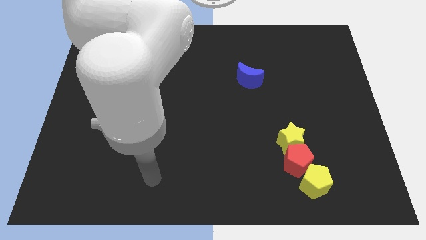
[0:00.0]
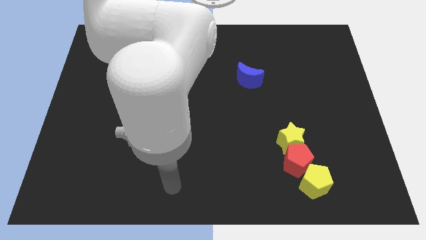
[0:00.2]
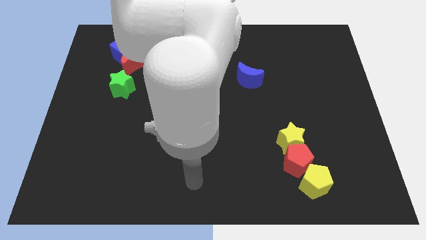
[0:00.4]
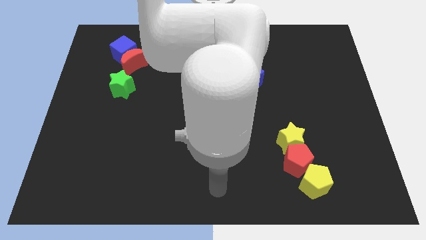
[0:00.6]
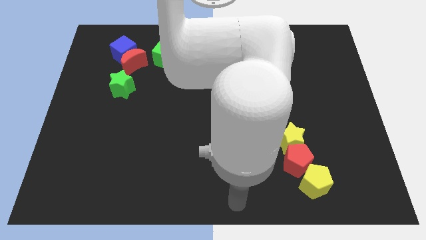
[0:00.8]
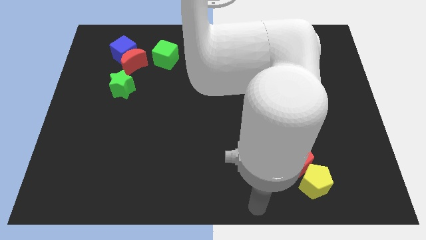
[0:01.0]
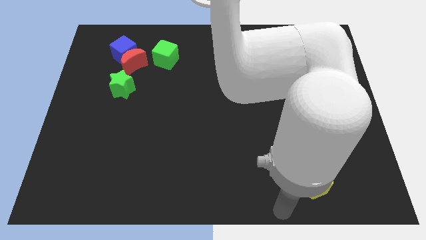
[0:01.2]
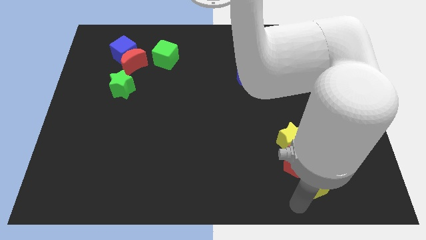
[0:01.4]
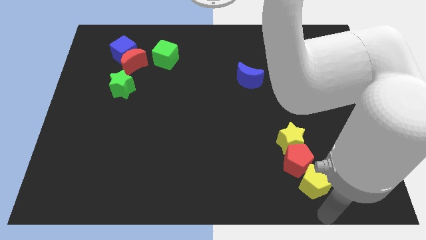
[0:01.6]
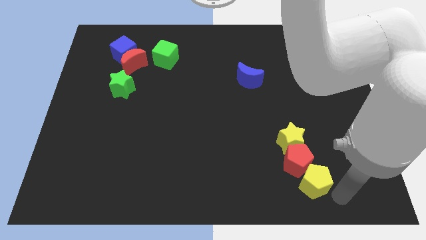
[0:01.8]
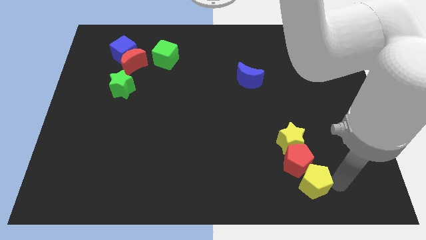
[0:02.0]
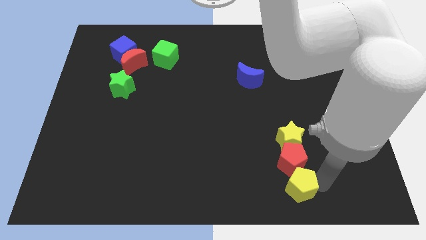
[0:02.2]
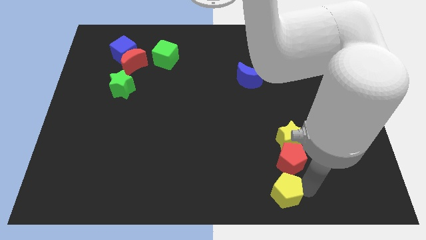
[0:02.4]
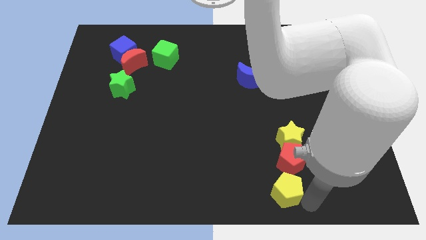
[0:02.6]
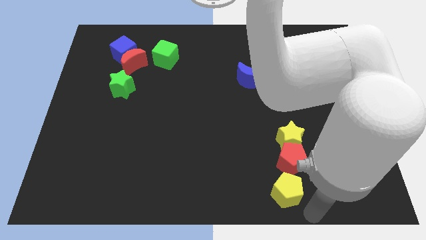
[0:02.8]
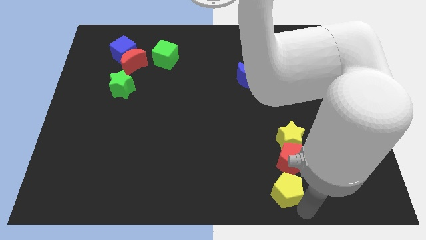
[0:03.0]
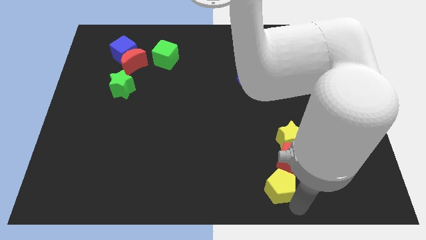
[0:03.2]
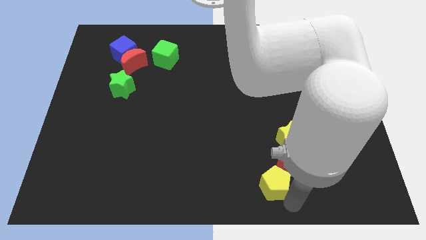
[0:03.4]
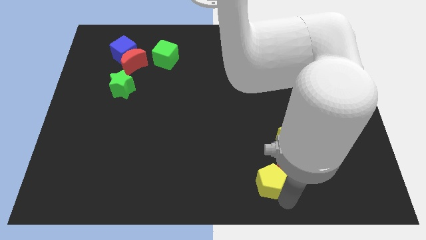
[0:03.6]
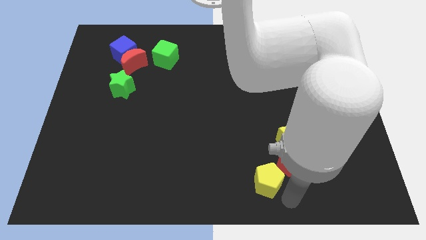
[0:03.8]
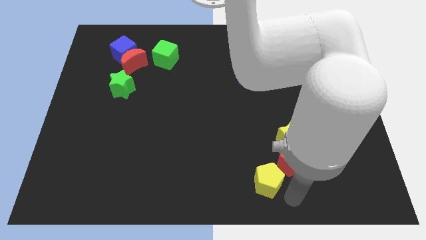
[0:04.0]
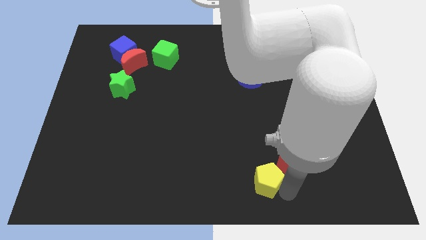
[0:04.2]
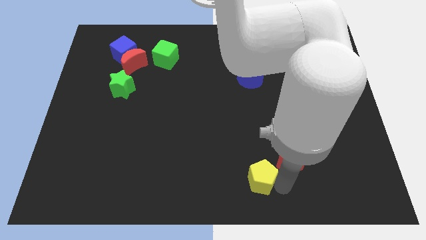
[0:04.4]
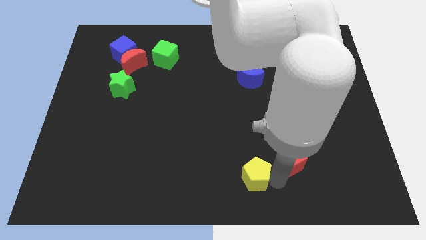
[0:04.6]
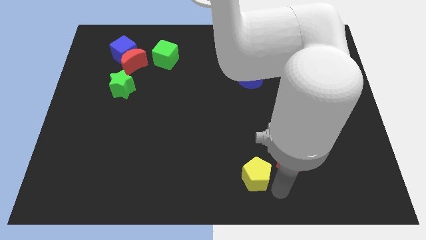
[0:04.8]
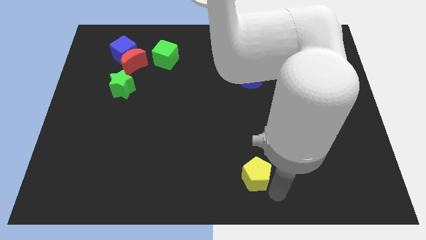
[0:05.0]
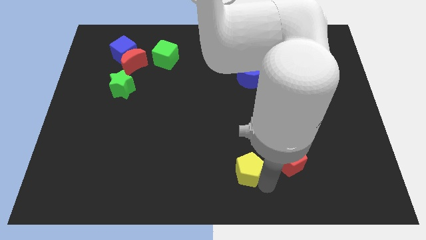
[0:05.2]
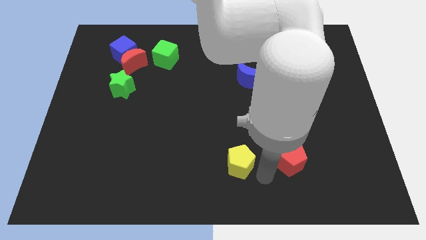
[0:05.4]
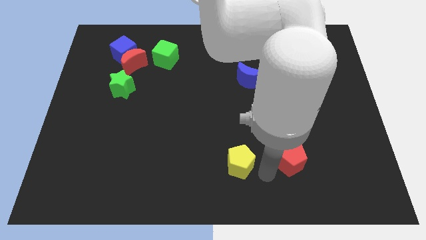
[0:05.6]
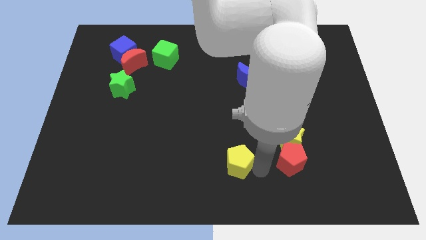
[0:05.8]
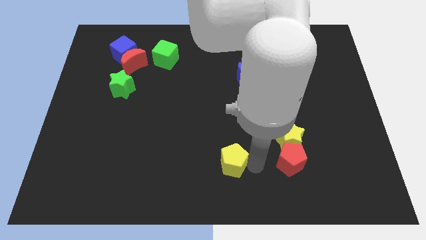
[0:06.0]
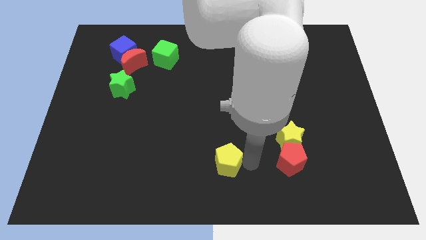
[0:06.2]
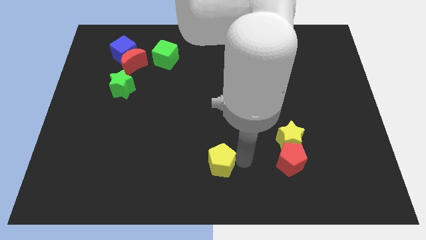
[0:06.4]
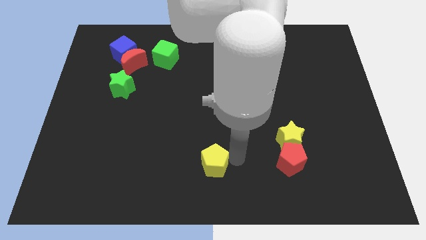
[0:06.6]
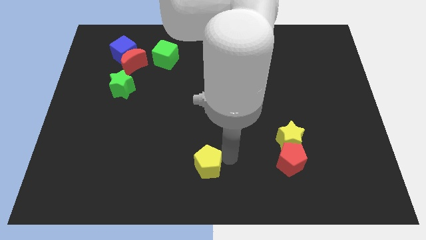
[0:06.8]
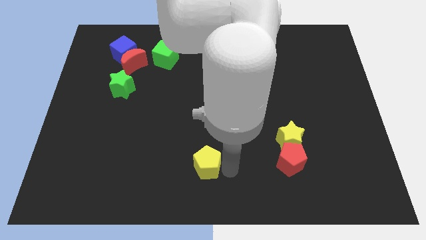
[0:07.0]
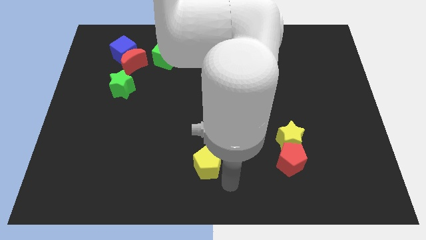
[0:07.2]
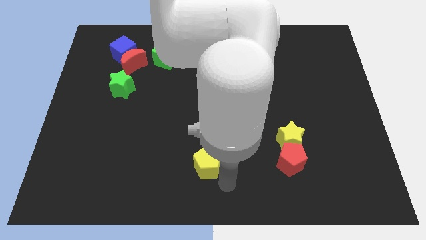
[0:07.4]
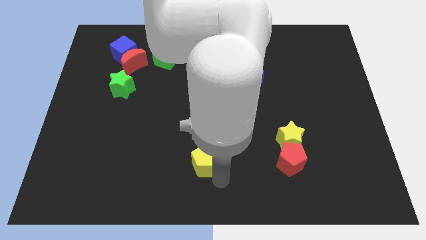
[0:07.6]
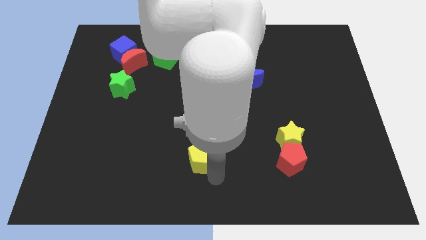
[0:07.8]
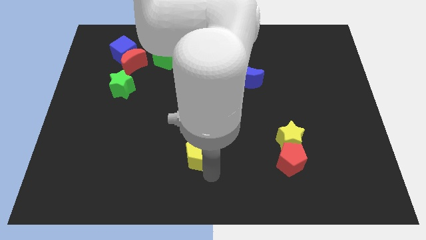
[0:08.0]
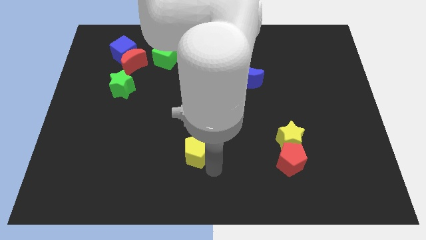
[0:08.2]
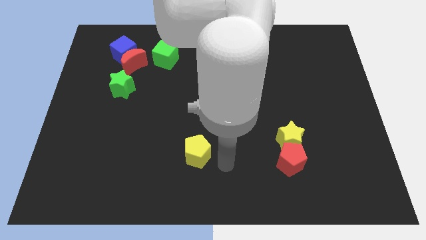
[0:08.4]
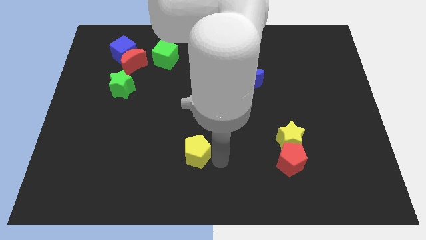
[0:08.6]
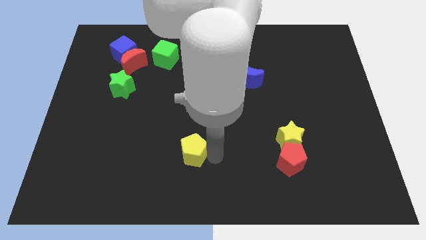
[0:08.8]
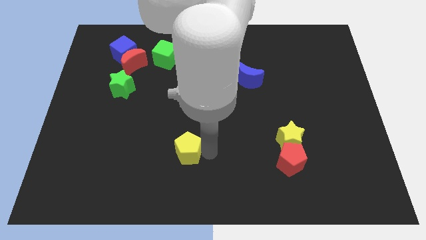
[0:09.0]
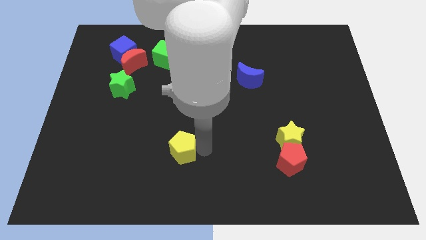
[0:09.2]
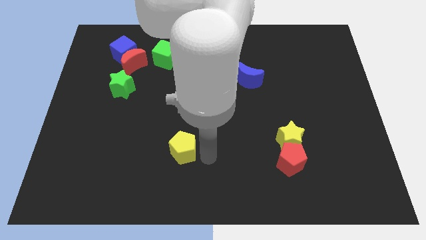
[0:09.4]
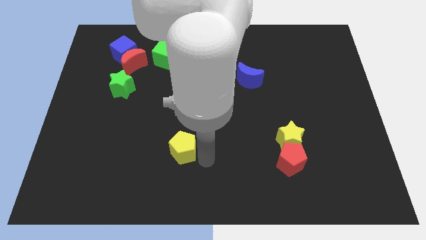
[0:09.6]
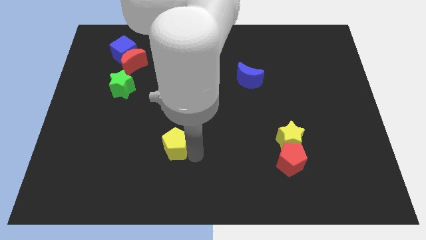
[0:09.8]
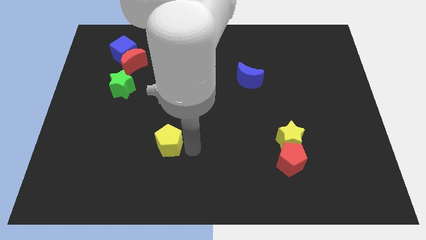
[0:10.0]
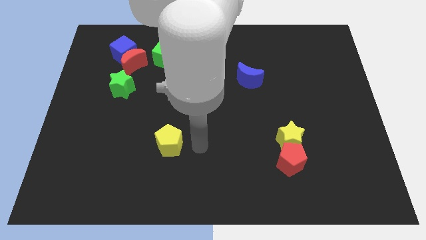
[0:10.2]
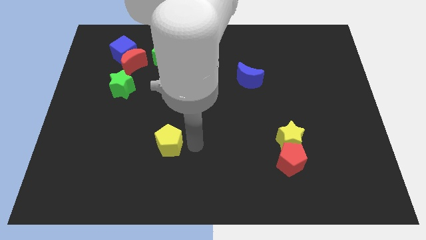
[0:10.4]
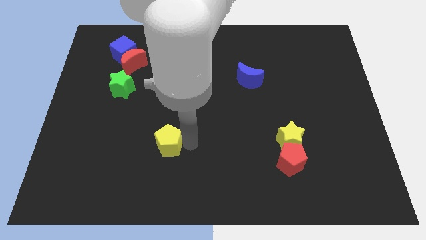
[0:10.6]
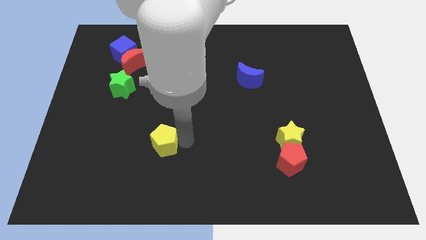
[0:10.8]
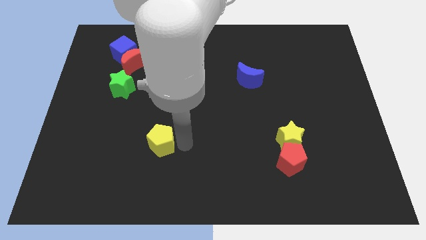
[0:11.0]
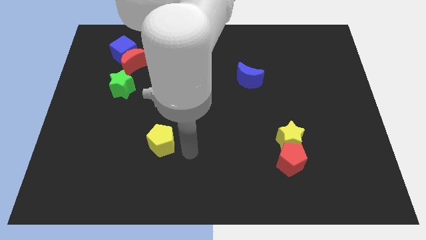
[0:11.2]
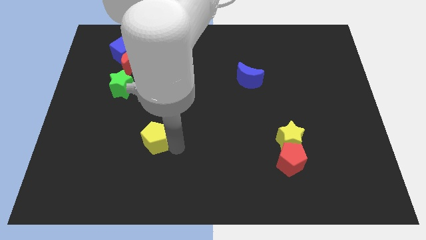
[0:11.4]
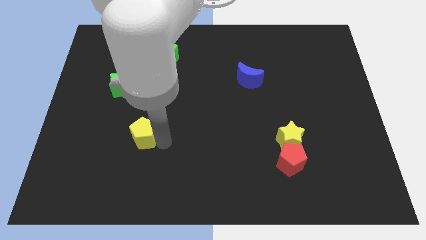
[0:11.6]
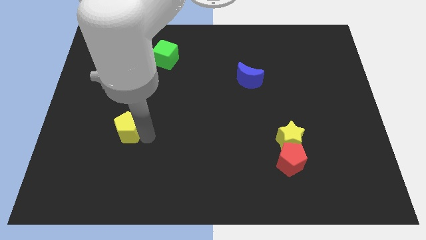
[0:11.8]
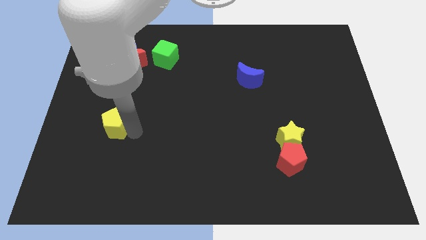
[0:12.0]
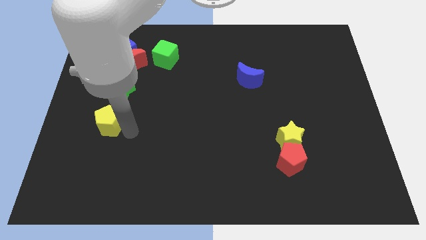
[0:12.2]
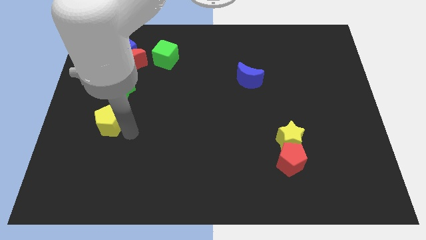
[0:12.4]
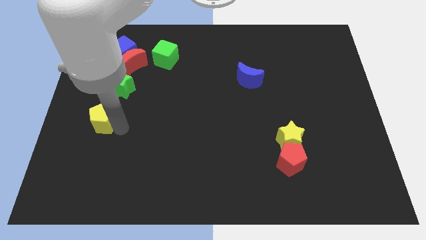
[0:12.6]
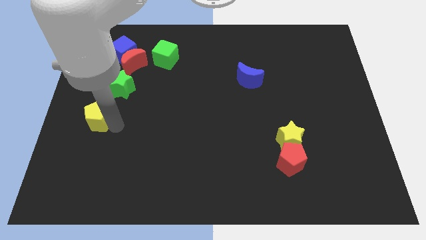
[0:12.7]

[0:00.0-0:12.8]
push the yellow pentagon to the left side of the board

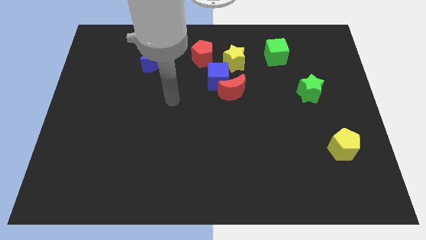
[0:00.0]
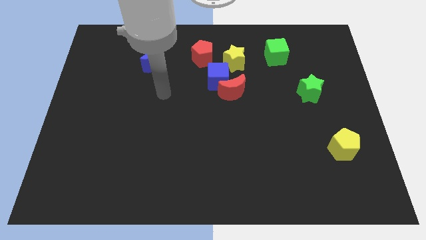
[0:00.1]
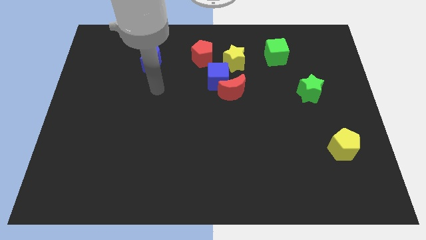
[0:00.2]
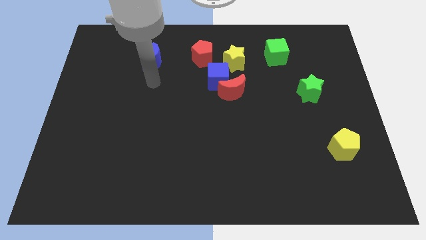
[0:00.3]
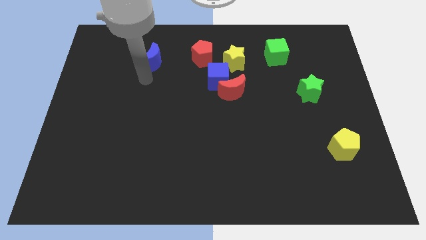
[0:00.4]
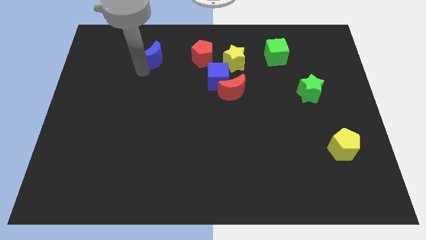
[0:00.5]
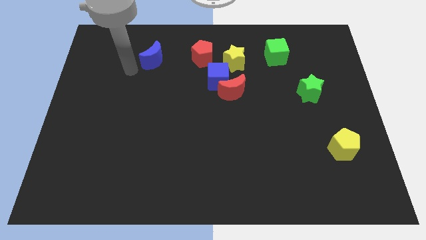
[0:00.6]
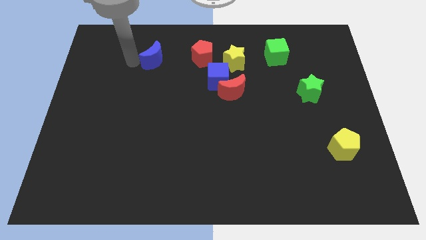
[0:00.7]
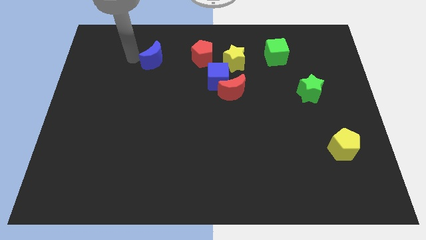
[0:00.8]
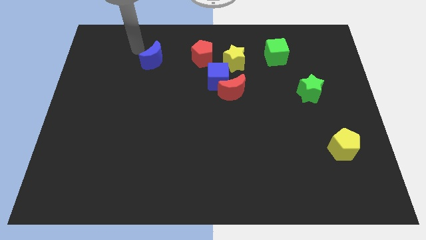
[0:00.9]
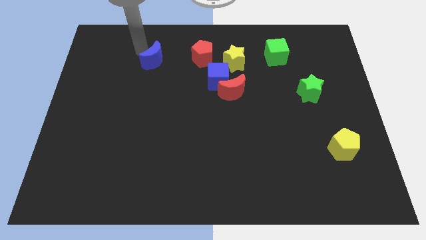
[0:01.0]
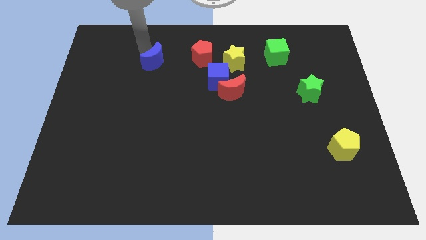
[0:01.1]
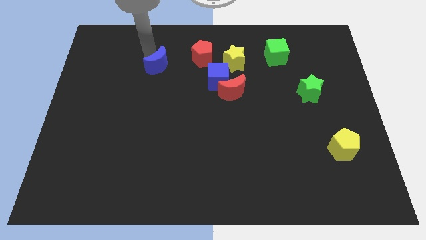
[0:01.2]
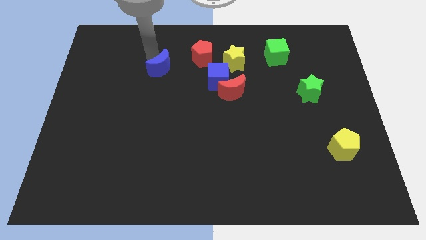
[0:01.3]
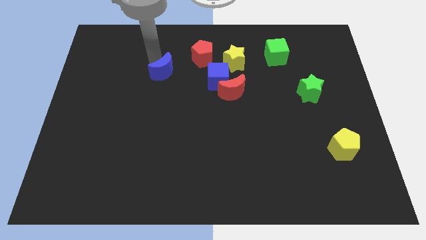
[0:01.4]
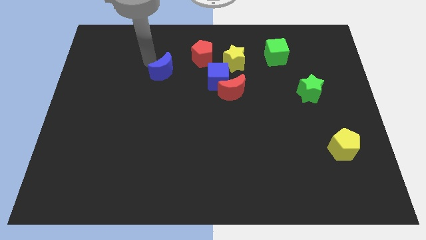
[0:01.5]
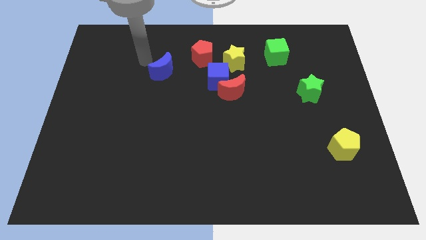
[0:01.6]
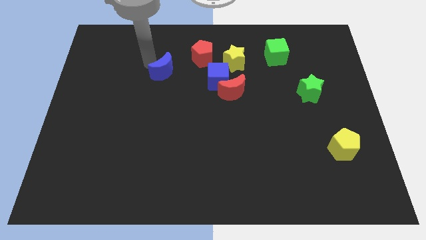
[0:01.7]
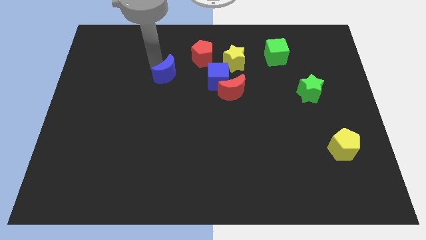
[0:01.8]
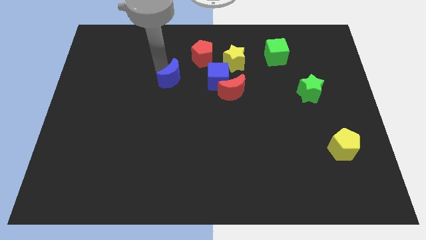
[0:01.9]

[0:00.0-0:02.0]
move the blue moon to the center of the board
